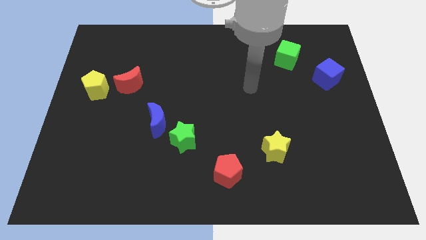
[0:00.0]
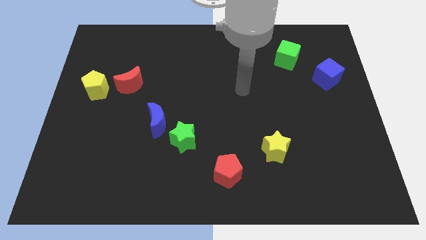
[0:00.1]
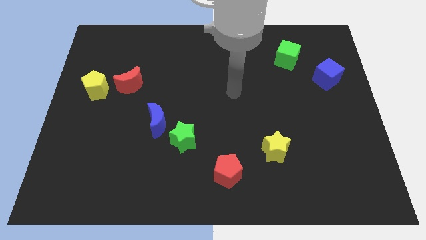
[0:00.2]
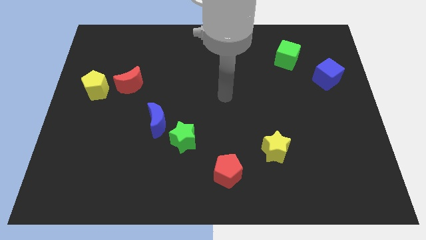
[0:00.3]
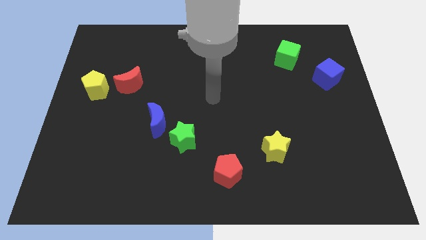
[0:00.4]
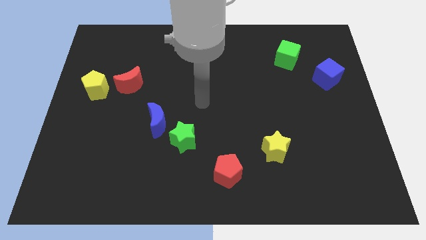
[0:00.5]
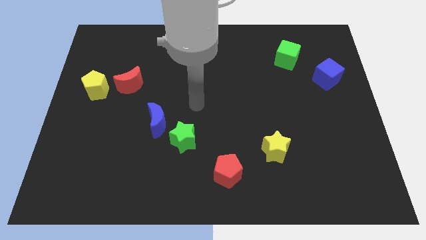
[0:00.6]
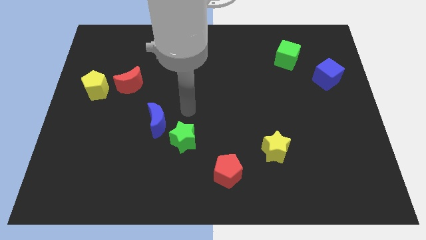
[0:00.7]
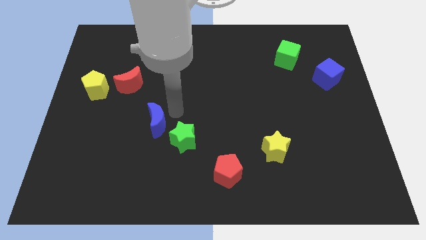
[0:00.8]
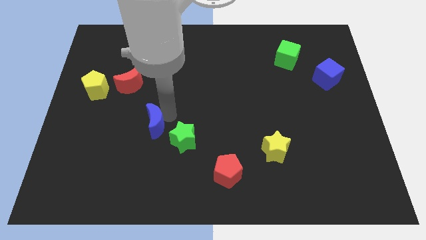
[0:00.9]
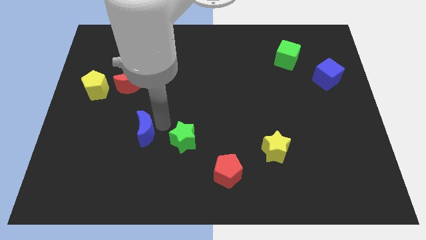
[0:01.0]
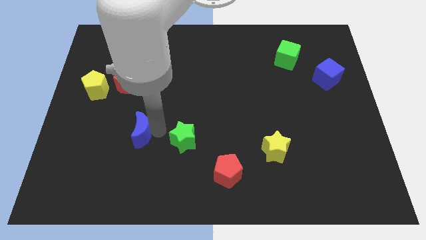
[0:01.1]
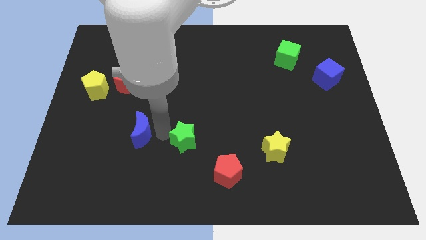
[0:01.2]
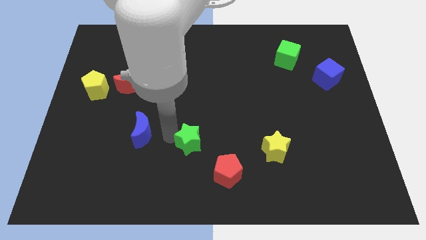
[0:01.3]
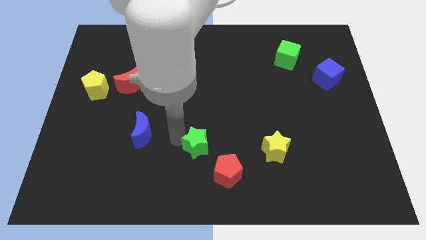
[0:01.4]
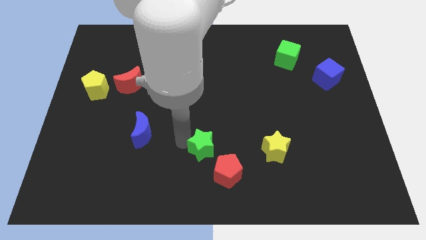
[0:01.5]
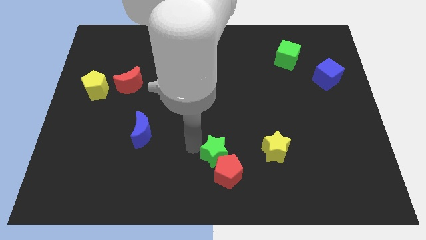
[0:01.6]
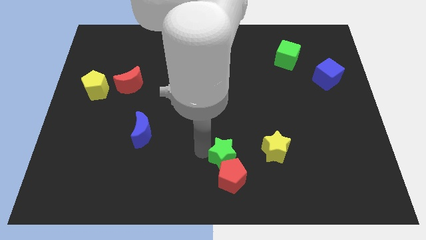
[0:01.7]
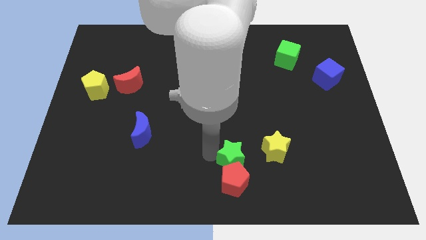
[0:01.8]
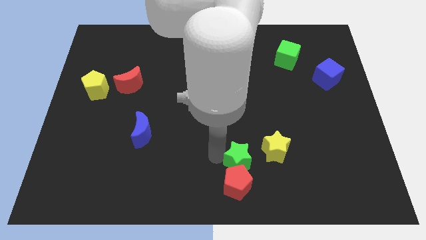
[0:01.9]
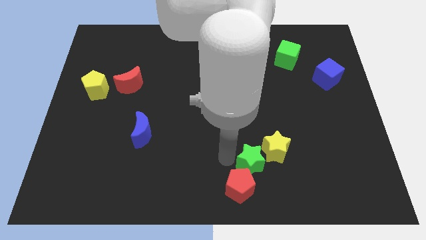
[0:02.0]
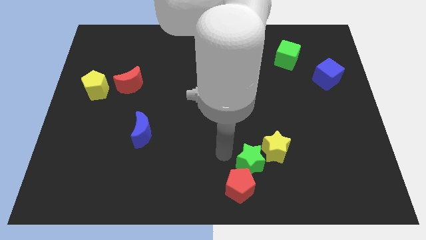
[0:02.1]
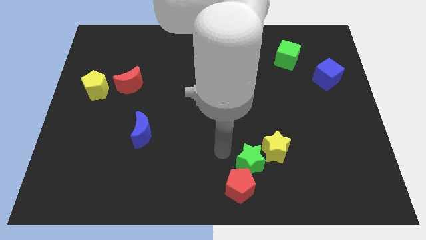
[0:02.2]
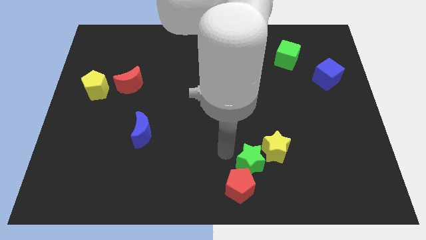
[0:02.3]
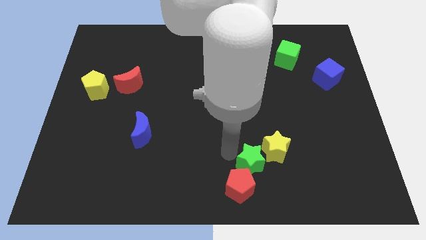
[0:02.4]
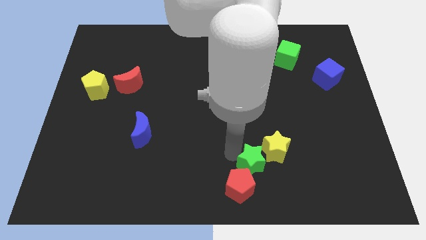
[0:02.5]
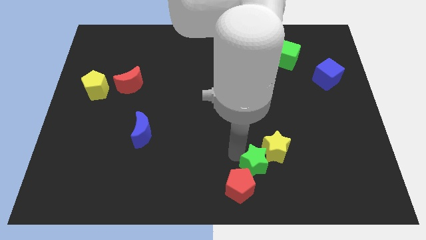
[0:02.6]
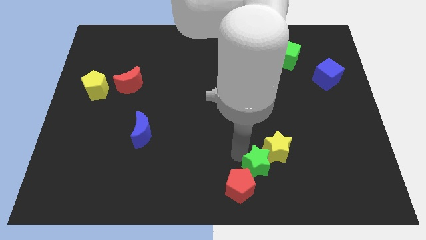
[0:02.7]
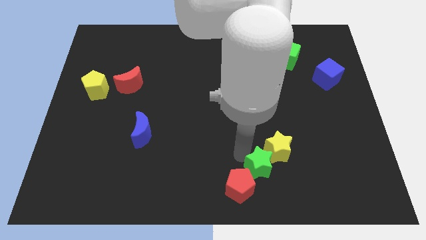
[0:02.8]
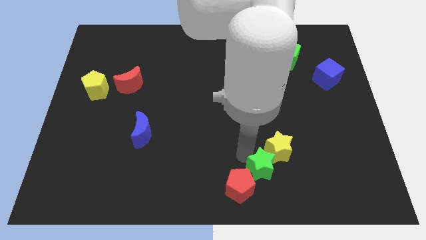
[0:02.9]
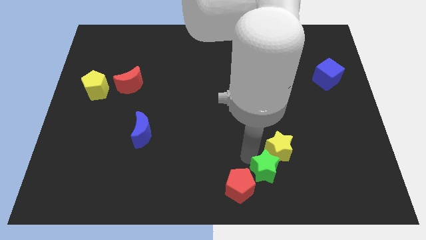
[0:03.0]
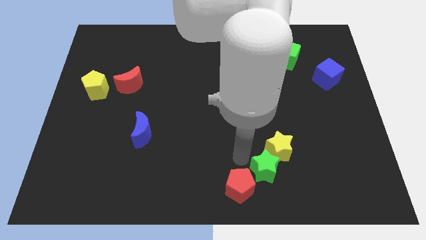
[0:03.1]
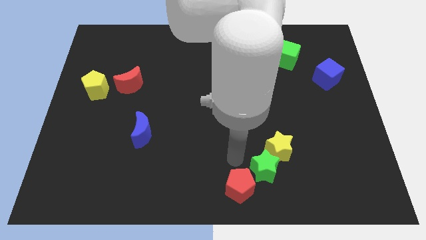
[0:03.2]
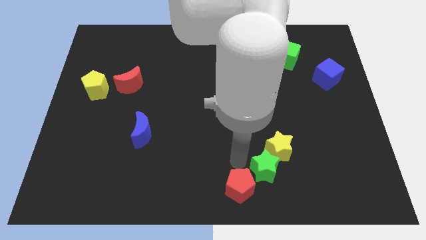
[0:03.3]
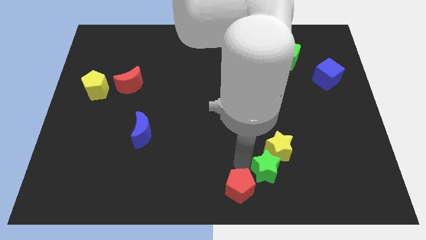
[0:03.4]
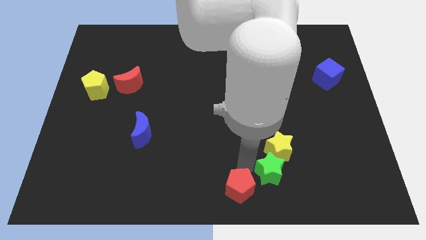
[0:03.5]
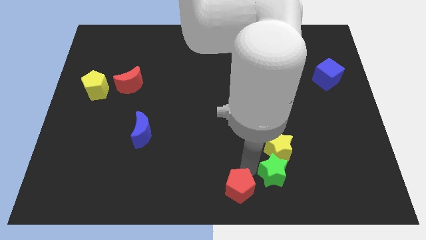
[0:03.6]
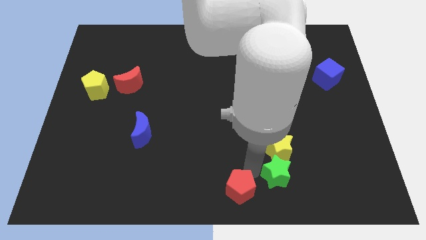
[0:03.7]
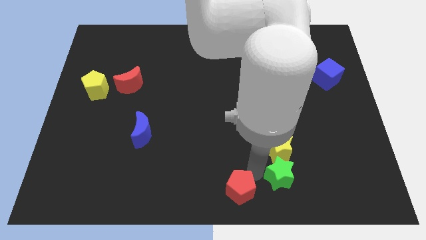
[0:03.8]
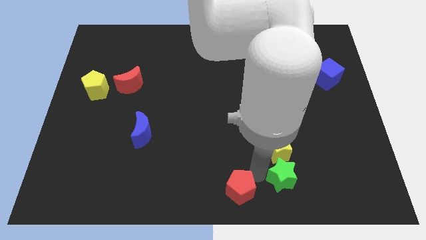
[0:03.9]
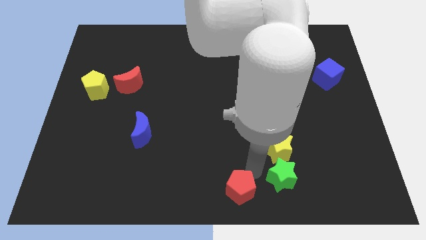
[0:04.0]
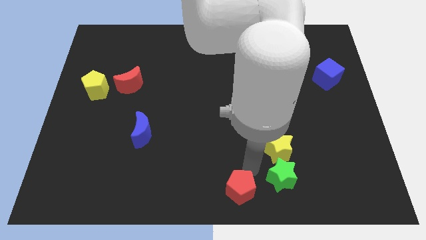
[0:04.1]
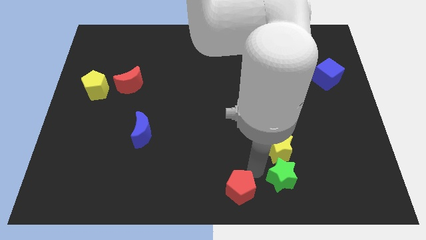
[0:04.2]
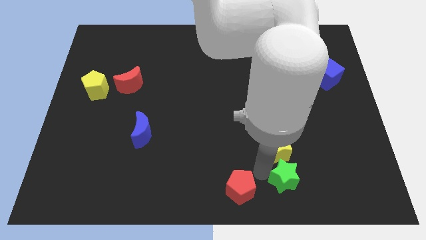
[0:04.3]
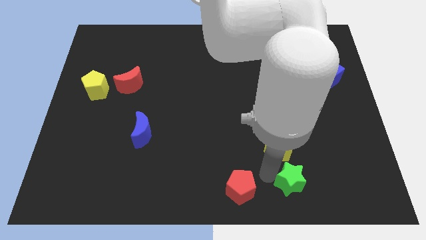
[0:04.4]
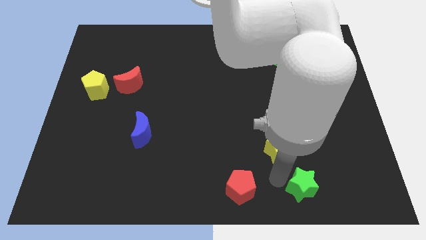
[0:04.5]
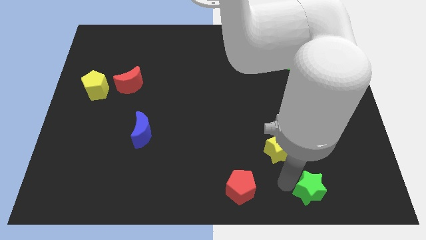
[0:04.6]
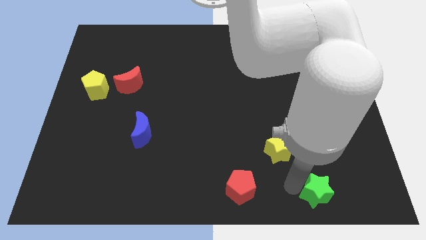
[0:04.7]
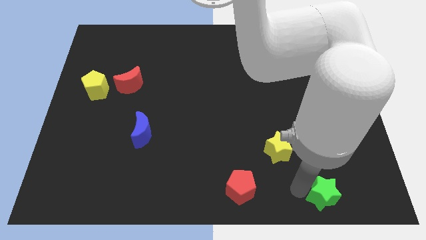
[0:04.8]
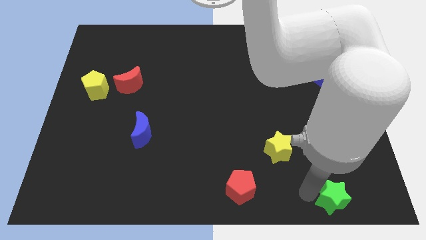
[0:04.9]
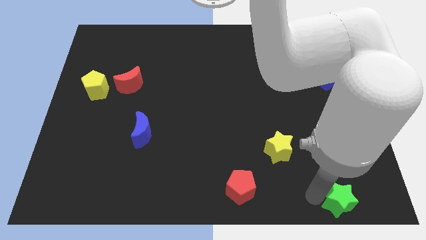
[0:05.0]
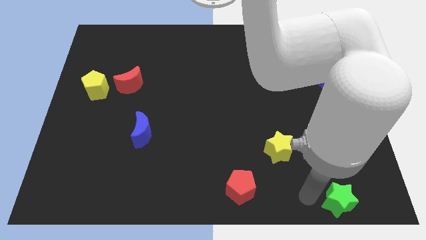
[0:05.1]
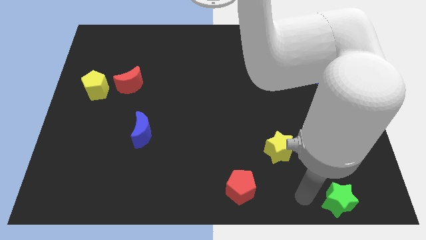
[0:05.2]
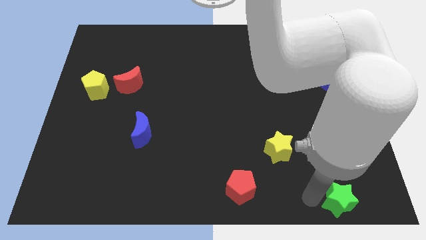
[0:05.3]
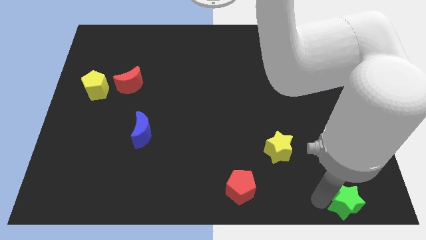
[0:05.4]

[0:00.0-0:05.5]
push the green star to the bottom right

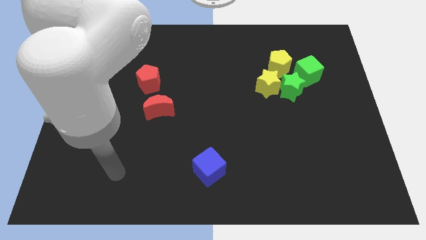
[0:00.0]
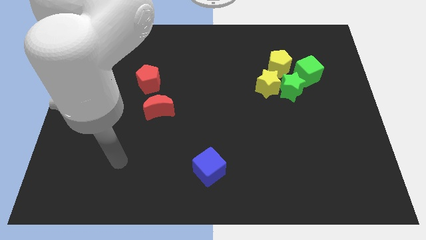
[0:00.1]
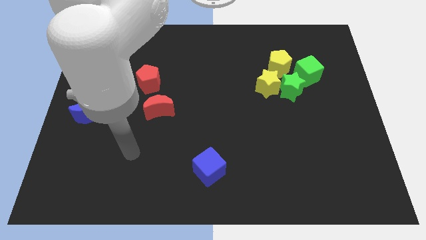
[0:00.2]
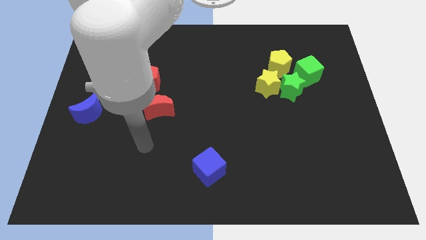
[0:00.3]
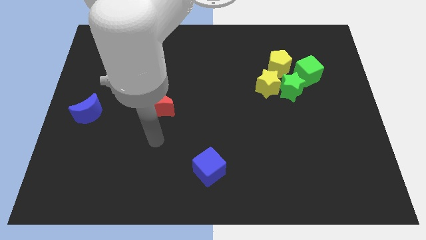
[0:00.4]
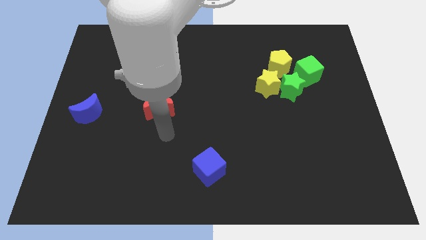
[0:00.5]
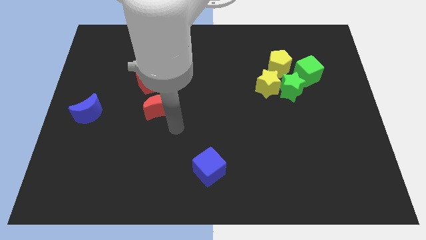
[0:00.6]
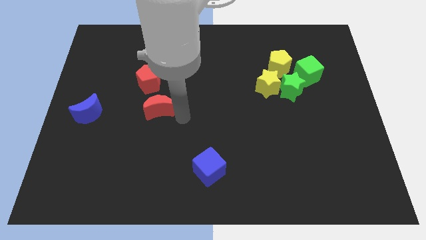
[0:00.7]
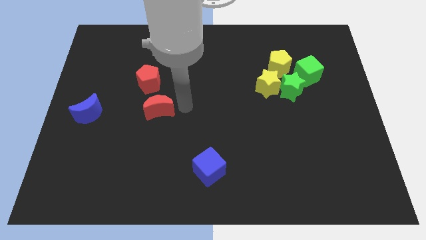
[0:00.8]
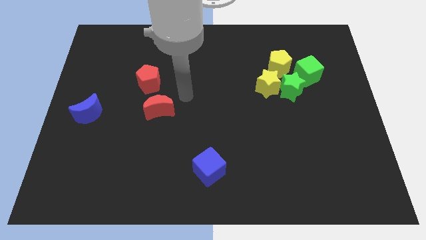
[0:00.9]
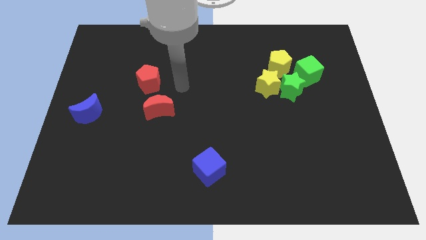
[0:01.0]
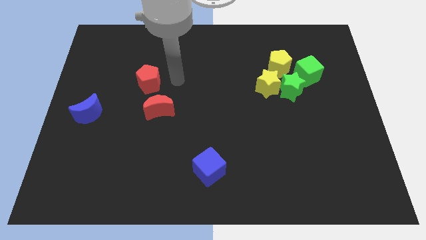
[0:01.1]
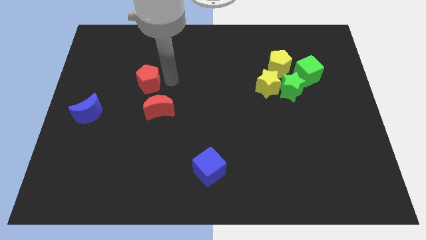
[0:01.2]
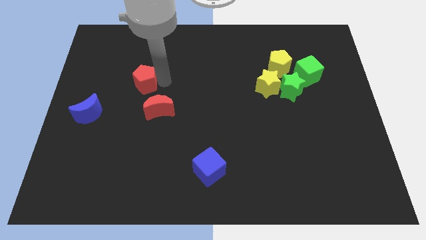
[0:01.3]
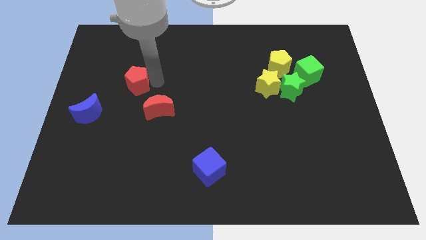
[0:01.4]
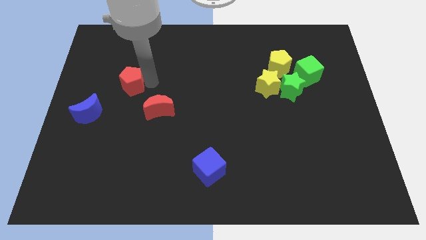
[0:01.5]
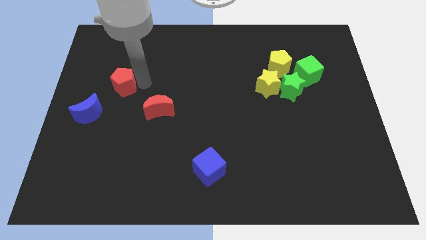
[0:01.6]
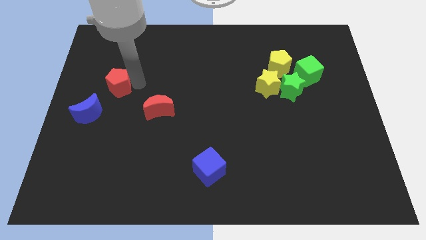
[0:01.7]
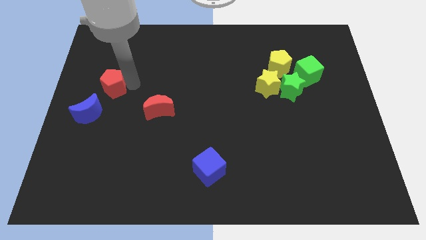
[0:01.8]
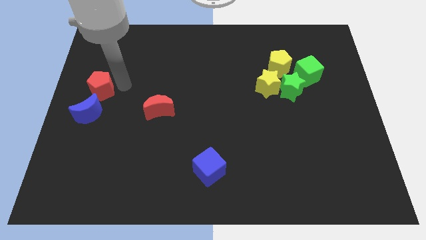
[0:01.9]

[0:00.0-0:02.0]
push the red pentagon to the center left

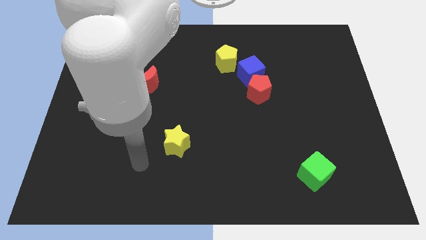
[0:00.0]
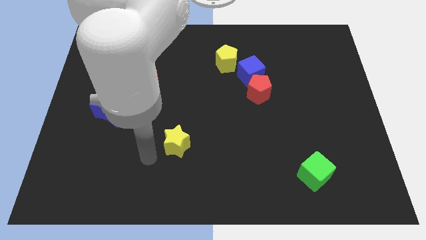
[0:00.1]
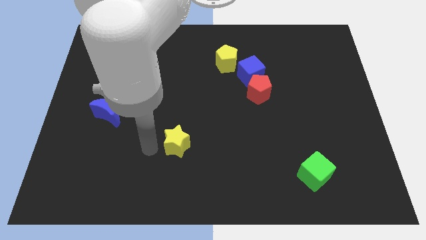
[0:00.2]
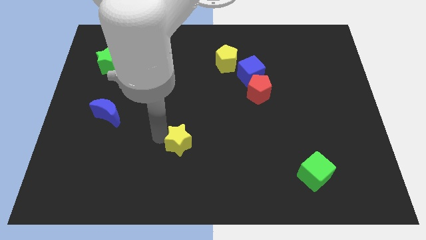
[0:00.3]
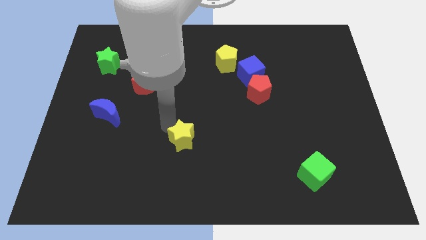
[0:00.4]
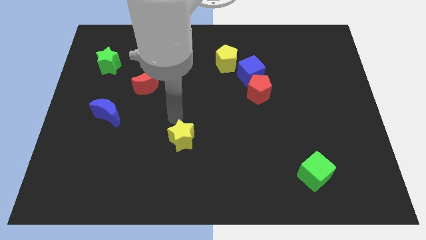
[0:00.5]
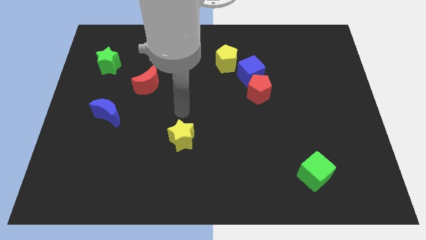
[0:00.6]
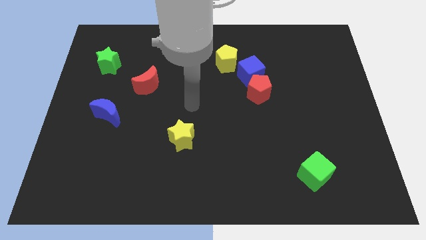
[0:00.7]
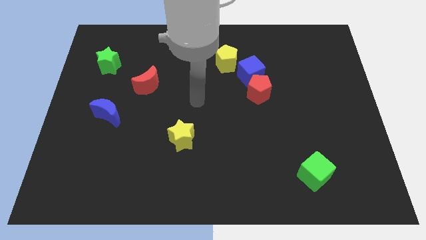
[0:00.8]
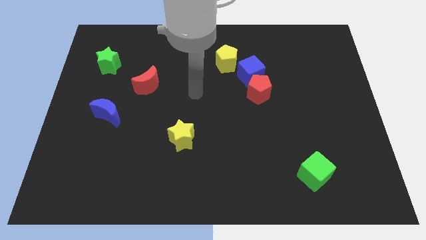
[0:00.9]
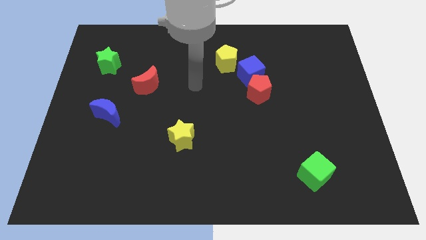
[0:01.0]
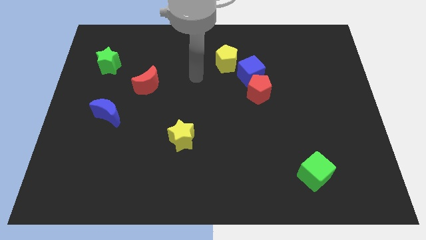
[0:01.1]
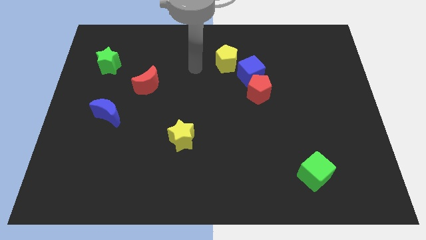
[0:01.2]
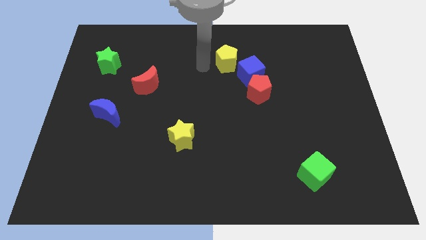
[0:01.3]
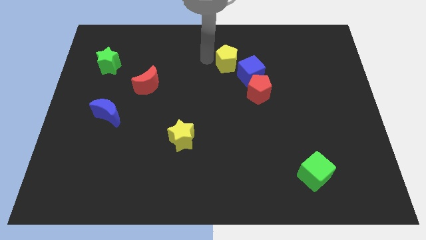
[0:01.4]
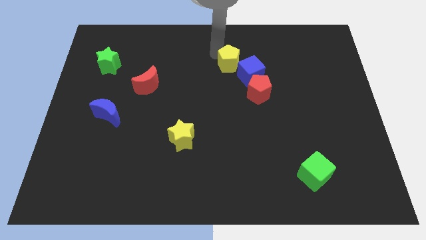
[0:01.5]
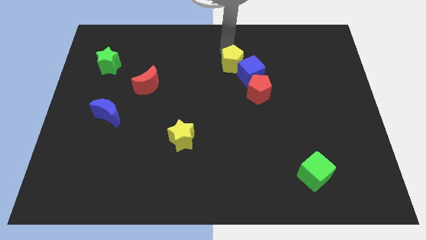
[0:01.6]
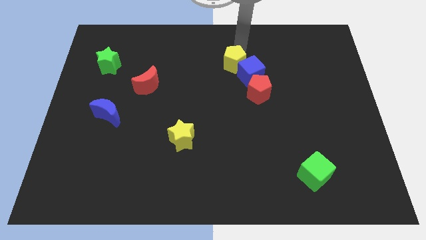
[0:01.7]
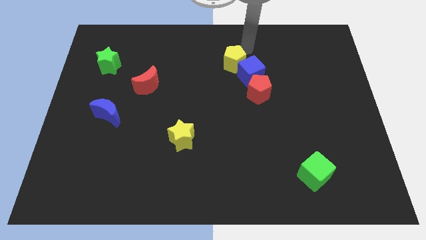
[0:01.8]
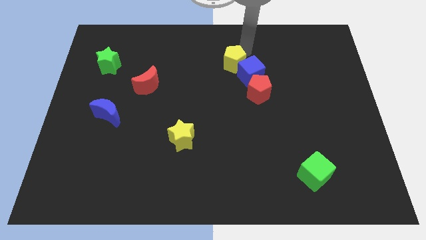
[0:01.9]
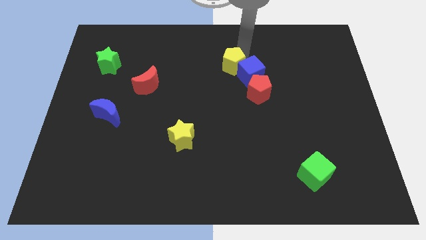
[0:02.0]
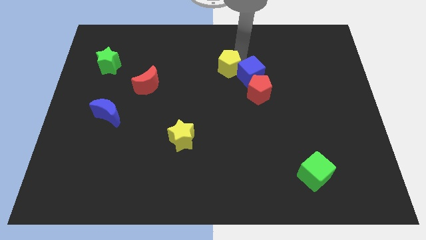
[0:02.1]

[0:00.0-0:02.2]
slide the yellow pentagon to the middle
